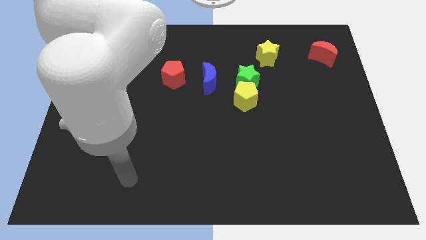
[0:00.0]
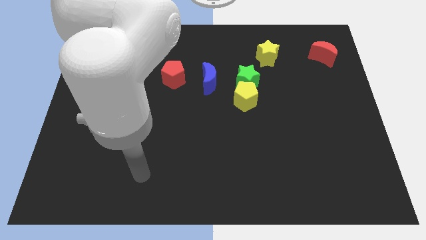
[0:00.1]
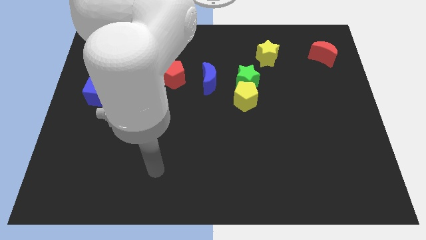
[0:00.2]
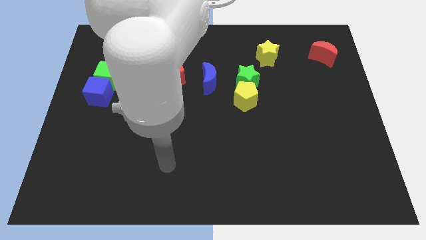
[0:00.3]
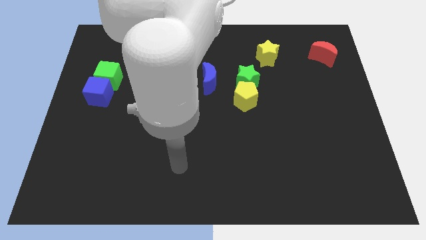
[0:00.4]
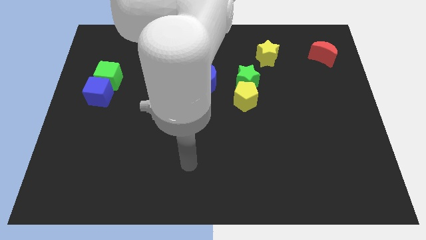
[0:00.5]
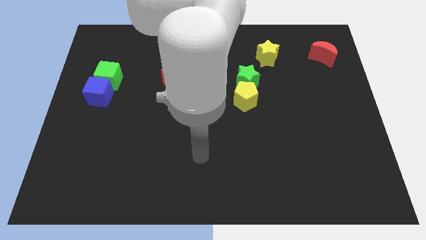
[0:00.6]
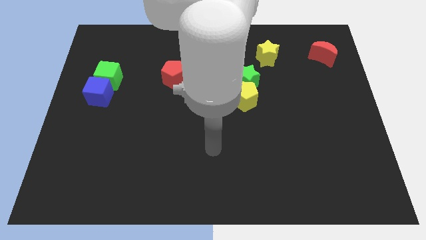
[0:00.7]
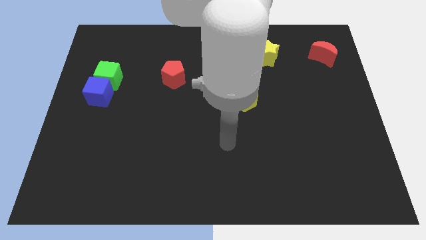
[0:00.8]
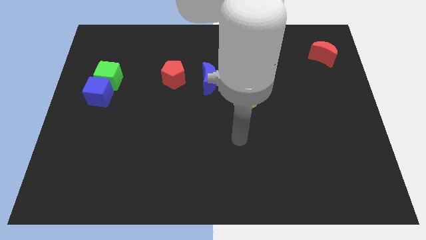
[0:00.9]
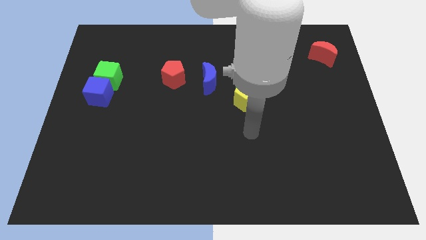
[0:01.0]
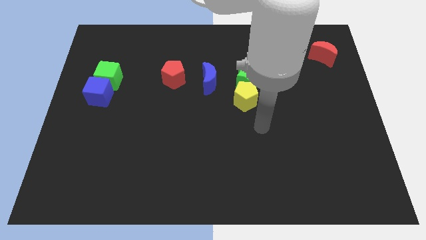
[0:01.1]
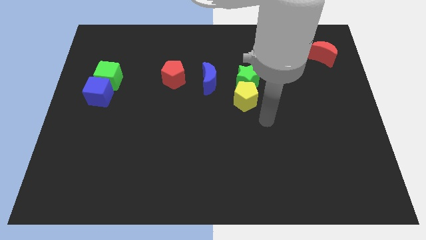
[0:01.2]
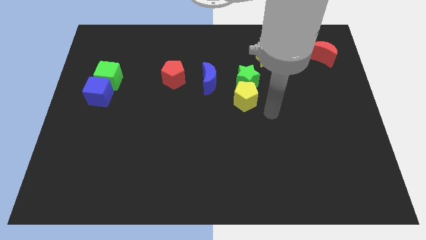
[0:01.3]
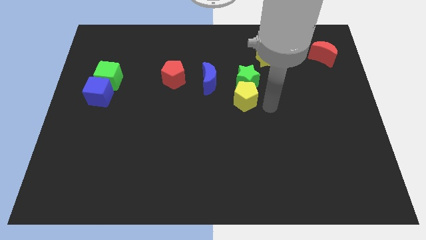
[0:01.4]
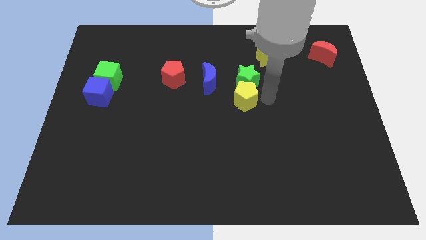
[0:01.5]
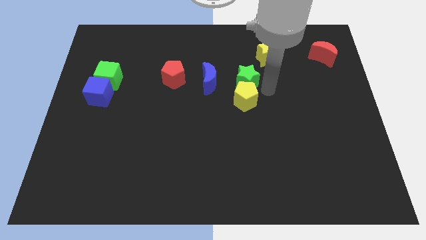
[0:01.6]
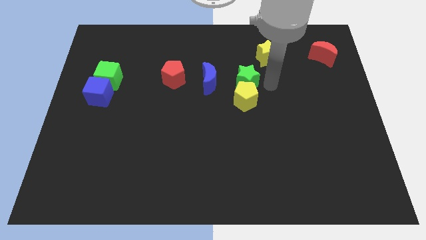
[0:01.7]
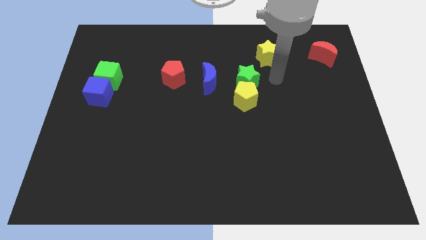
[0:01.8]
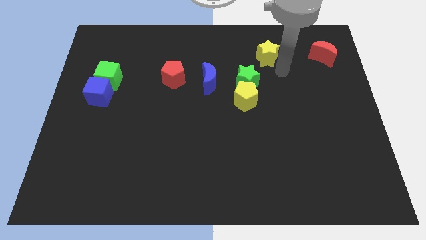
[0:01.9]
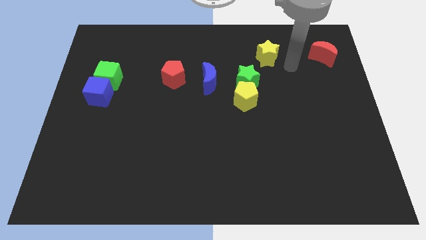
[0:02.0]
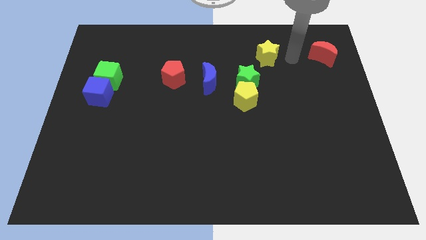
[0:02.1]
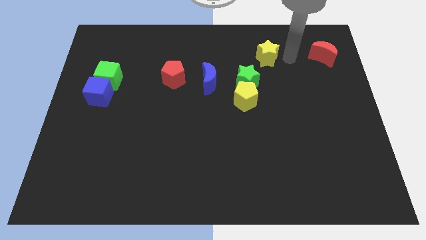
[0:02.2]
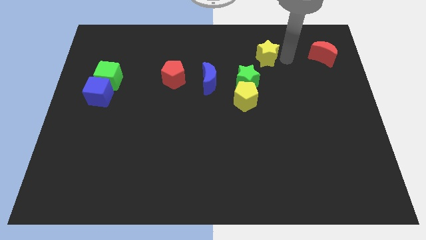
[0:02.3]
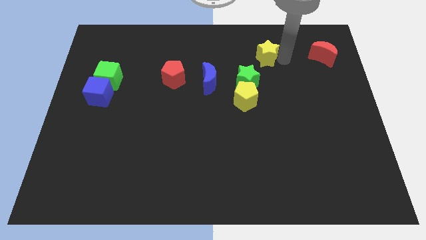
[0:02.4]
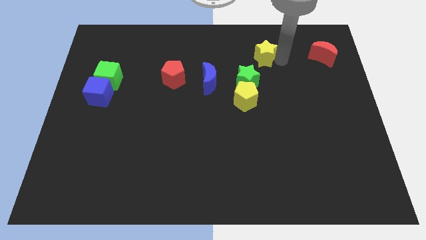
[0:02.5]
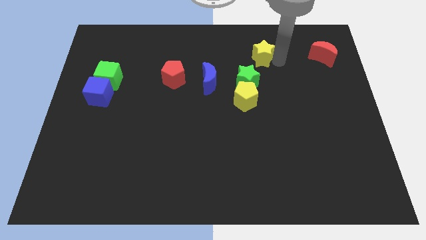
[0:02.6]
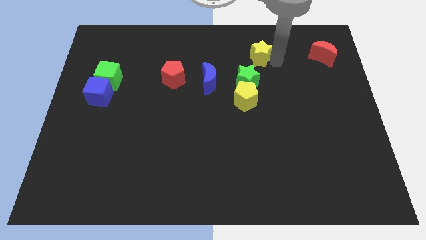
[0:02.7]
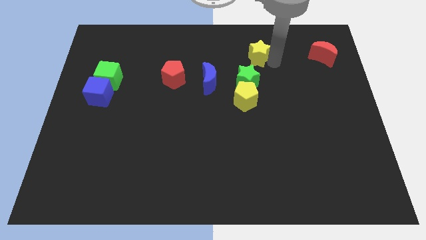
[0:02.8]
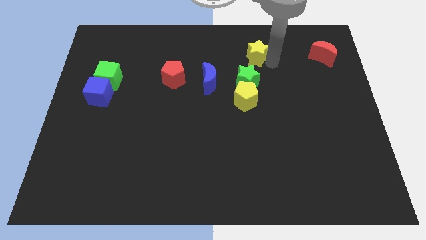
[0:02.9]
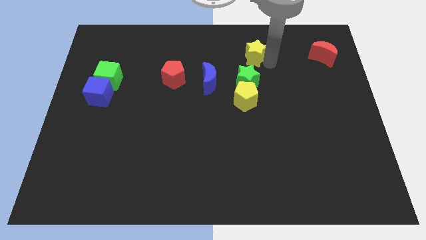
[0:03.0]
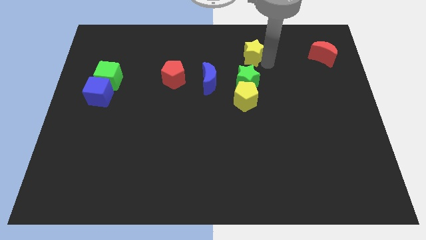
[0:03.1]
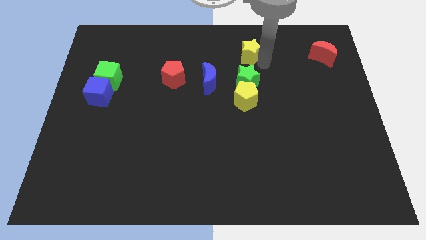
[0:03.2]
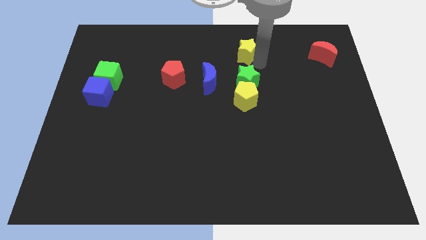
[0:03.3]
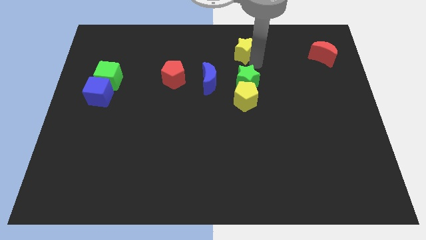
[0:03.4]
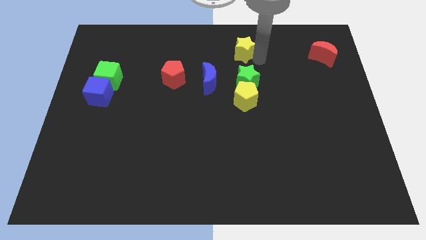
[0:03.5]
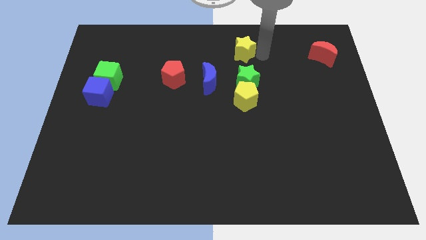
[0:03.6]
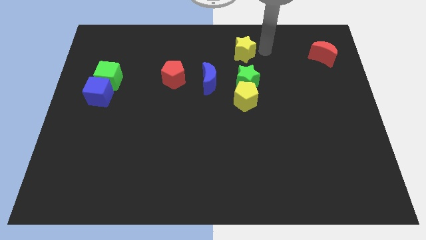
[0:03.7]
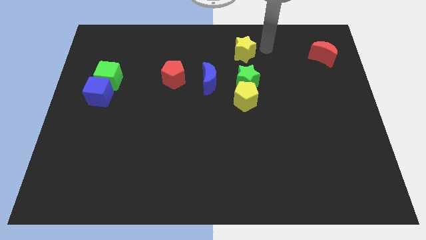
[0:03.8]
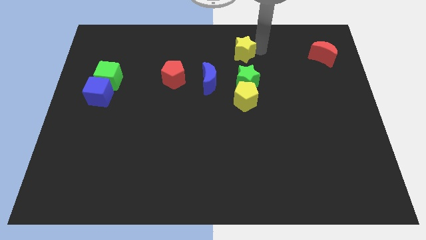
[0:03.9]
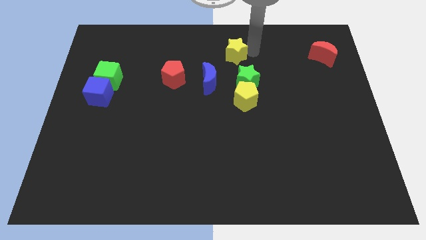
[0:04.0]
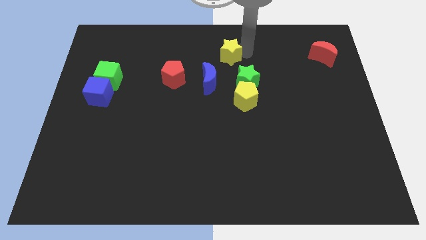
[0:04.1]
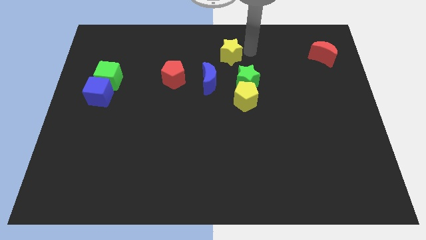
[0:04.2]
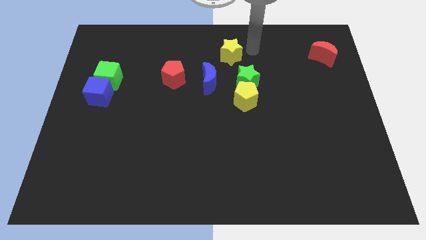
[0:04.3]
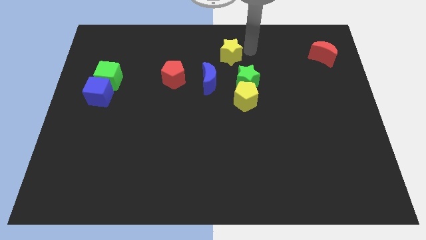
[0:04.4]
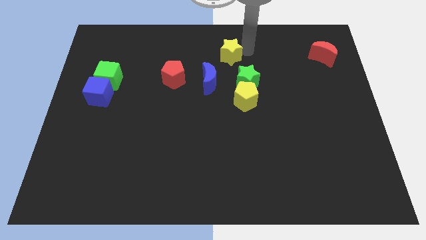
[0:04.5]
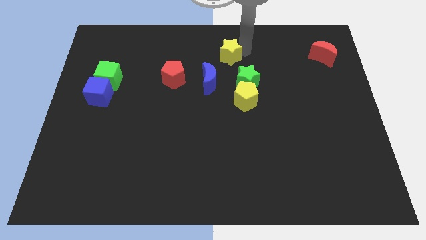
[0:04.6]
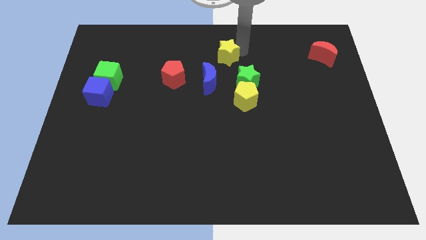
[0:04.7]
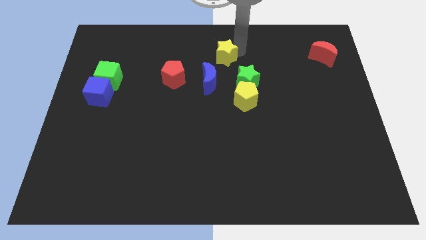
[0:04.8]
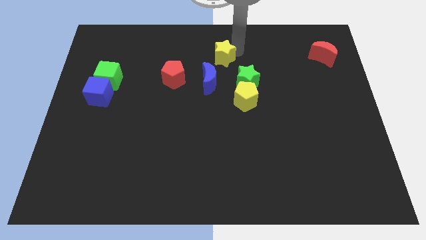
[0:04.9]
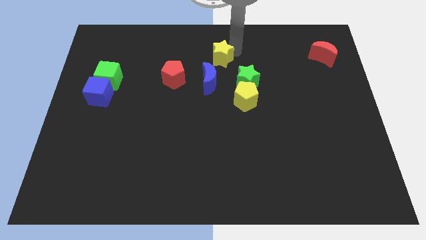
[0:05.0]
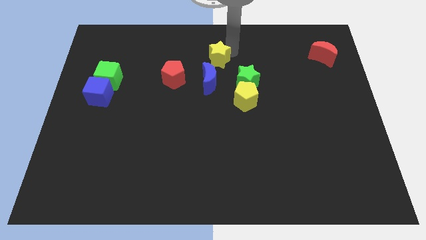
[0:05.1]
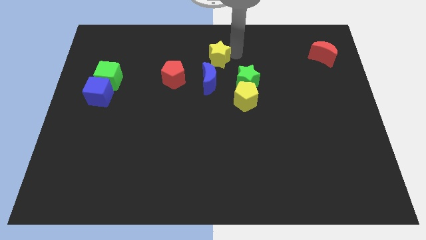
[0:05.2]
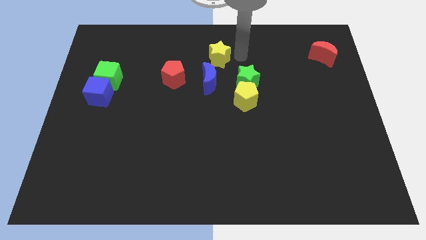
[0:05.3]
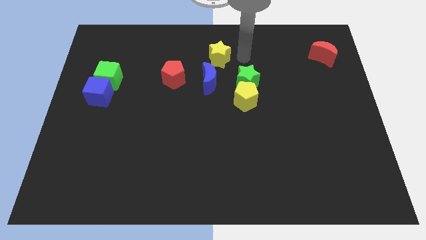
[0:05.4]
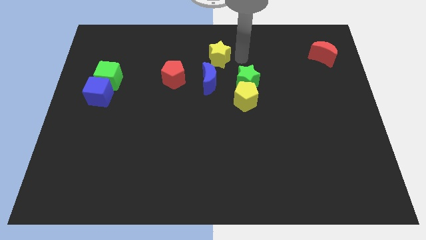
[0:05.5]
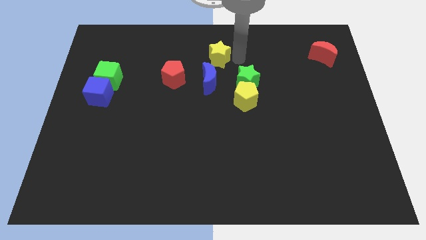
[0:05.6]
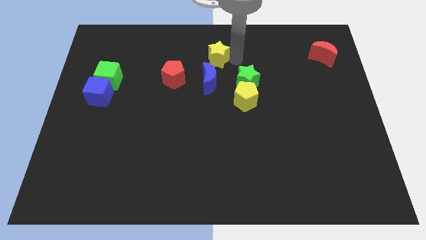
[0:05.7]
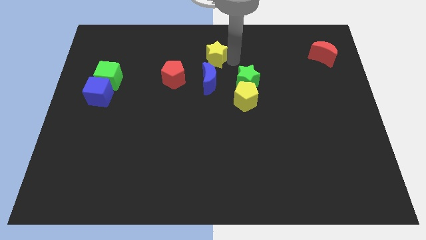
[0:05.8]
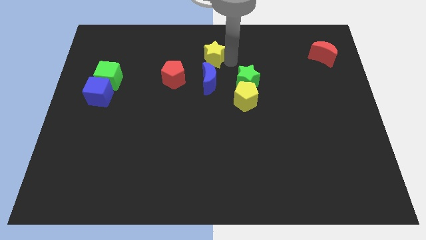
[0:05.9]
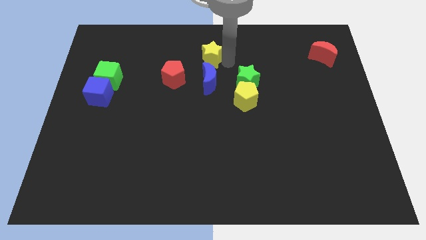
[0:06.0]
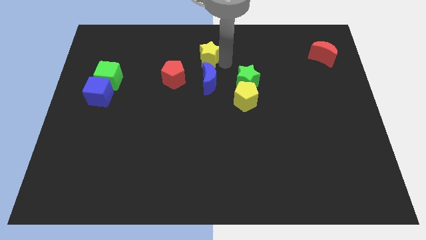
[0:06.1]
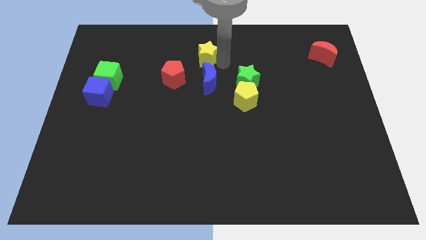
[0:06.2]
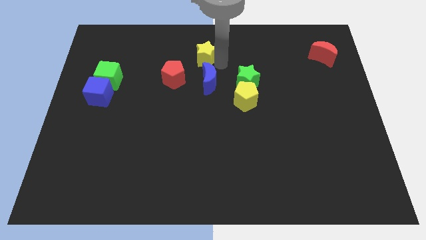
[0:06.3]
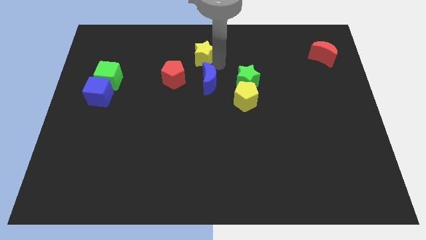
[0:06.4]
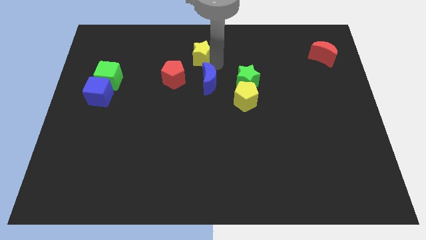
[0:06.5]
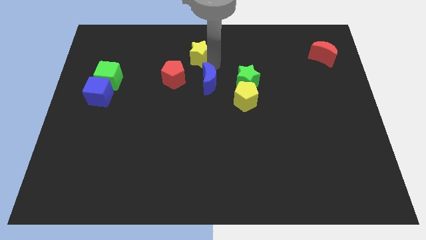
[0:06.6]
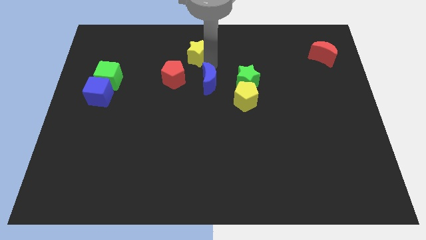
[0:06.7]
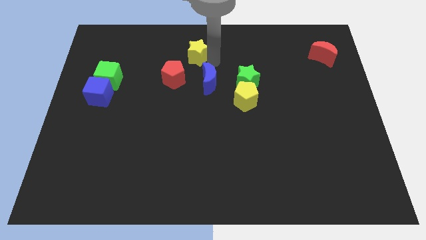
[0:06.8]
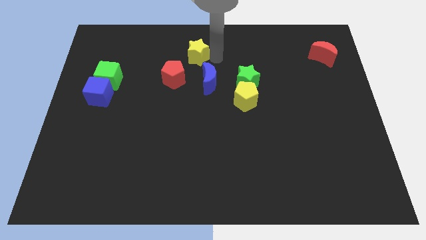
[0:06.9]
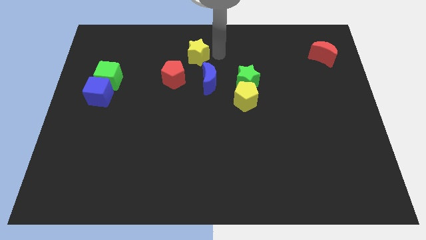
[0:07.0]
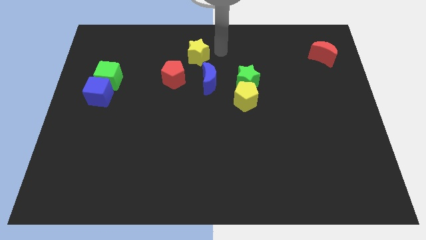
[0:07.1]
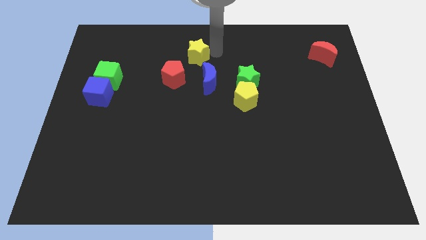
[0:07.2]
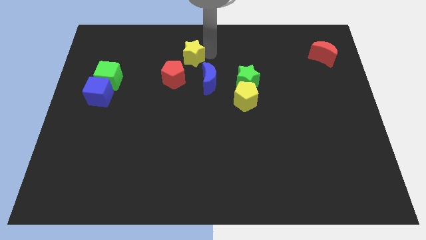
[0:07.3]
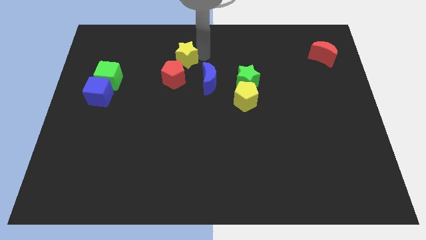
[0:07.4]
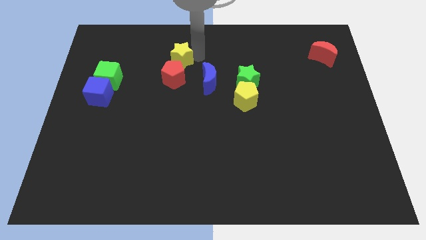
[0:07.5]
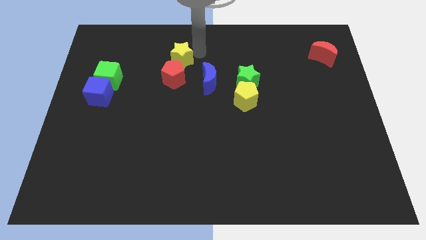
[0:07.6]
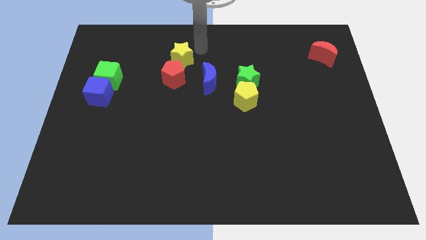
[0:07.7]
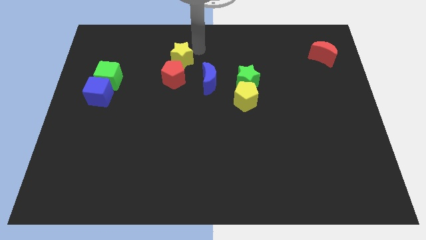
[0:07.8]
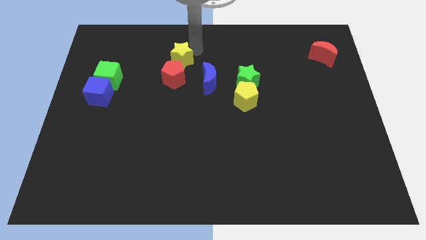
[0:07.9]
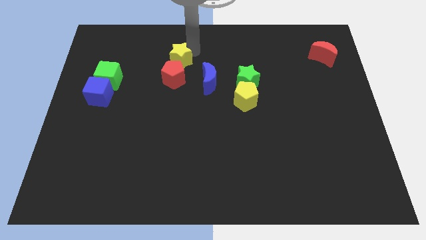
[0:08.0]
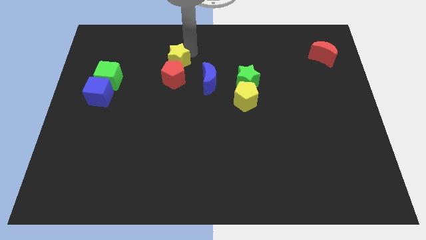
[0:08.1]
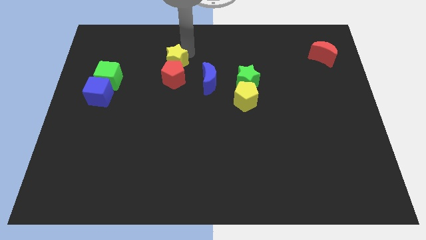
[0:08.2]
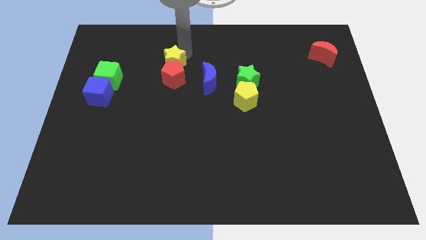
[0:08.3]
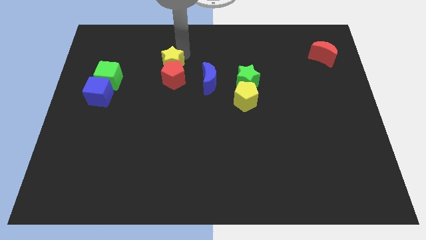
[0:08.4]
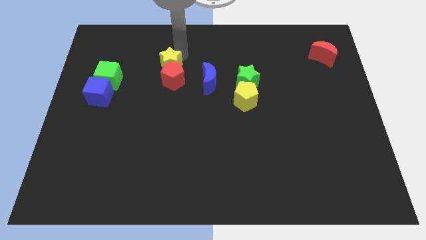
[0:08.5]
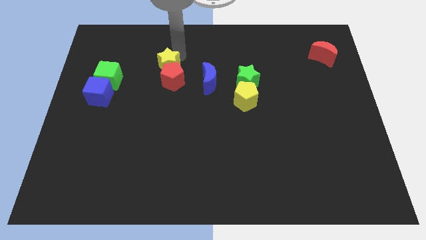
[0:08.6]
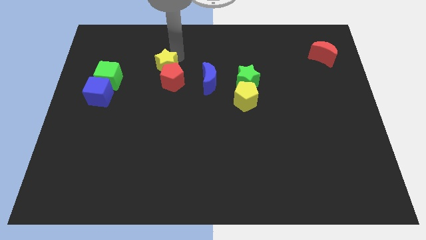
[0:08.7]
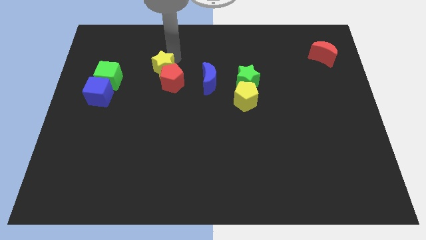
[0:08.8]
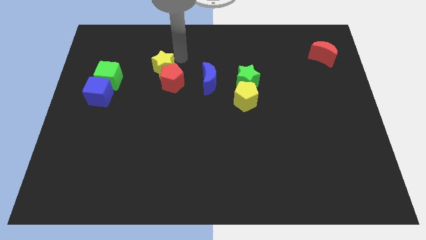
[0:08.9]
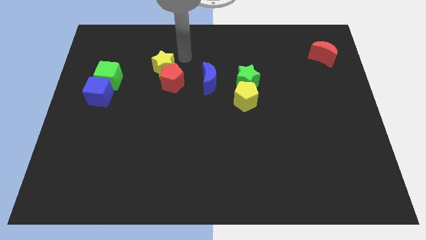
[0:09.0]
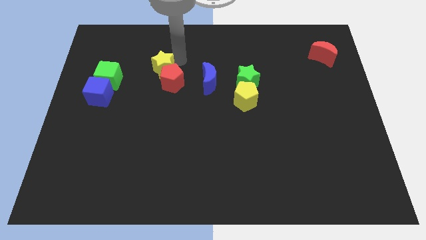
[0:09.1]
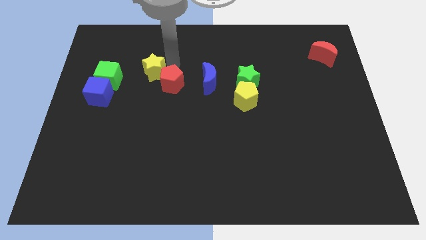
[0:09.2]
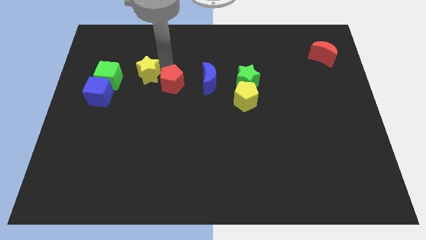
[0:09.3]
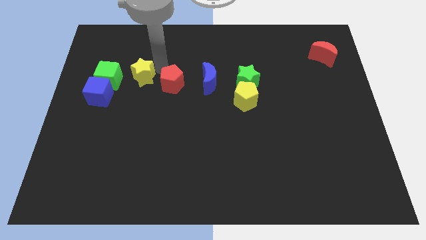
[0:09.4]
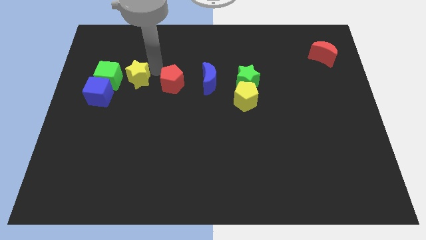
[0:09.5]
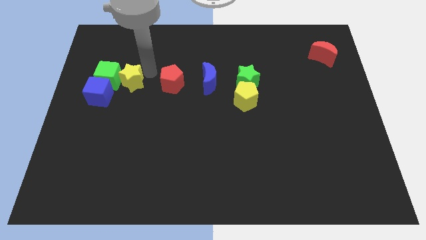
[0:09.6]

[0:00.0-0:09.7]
push the yellow star to the bottom right of the green cube
